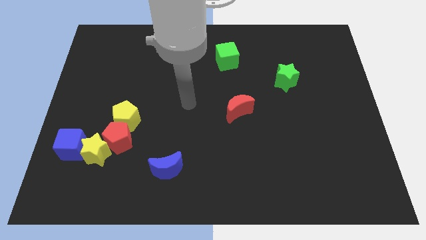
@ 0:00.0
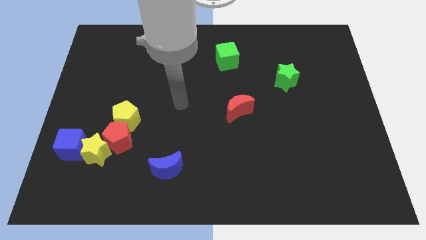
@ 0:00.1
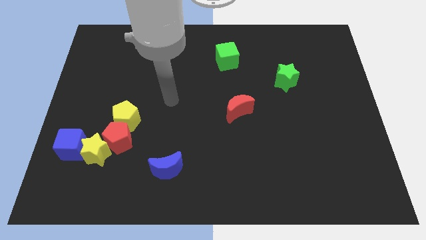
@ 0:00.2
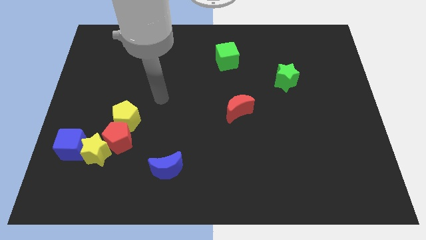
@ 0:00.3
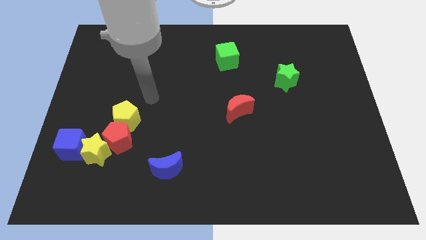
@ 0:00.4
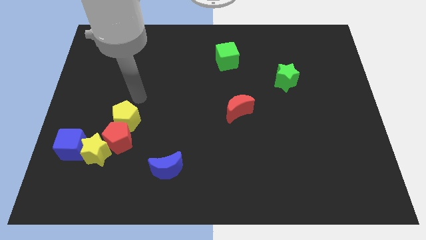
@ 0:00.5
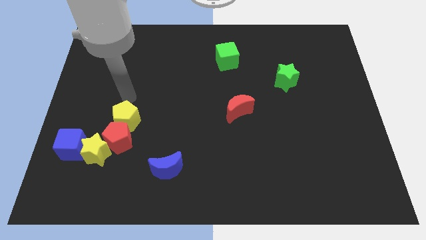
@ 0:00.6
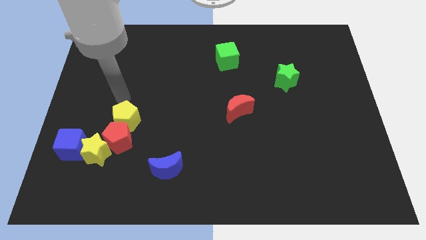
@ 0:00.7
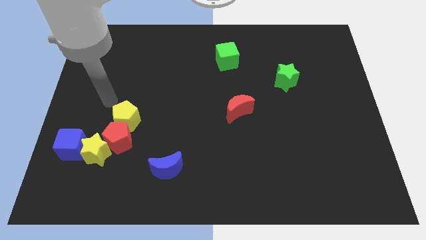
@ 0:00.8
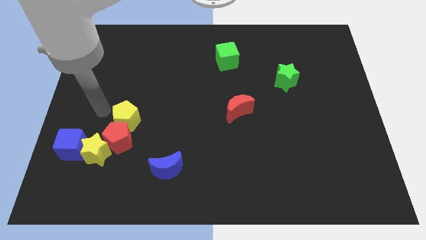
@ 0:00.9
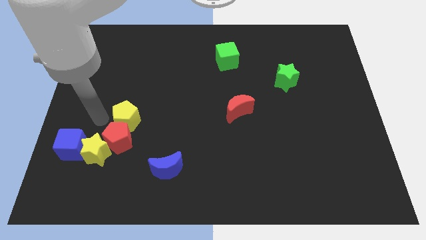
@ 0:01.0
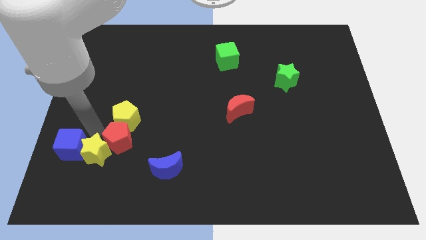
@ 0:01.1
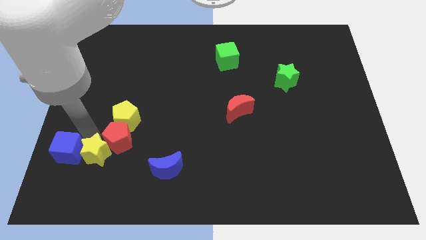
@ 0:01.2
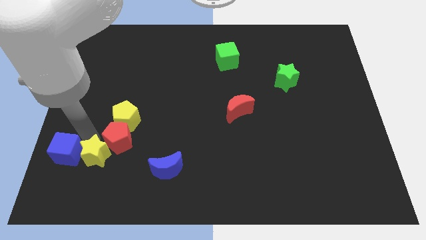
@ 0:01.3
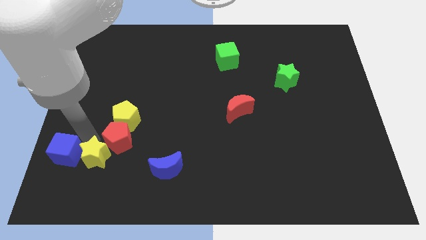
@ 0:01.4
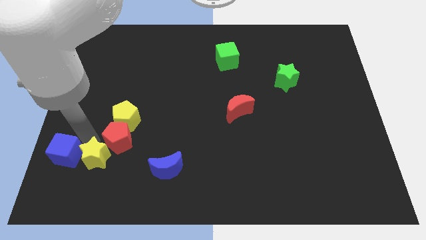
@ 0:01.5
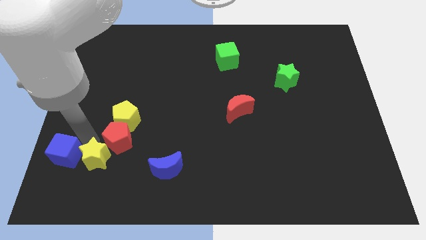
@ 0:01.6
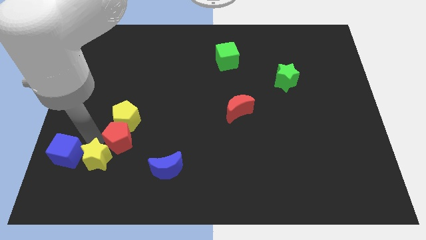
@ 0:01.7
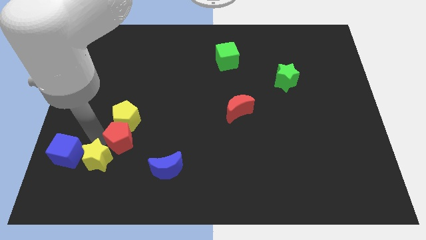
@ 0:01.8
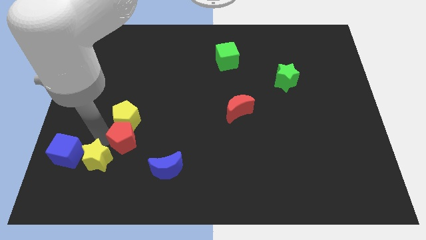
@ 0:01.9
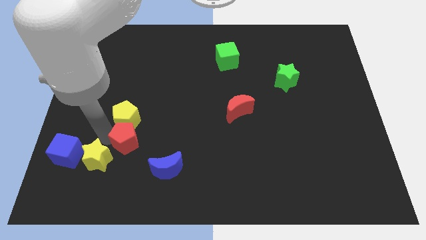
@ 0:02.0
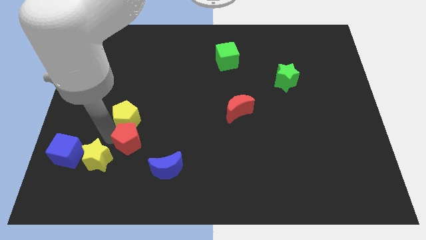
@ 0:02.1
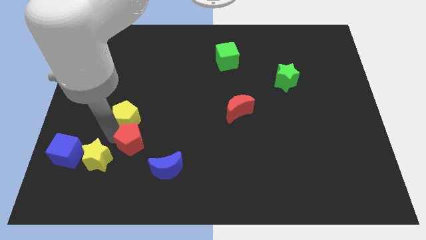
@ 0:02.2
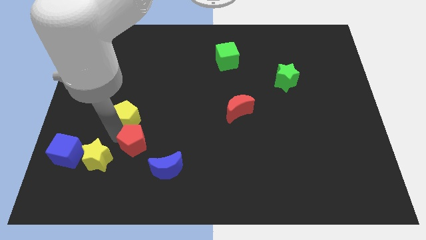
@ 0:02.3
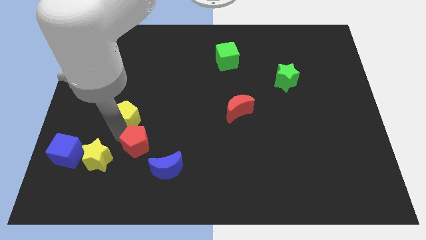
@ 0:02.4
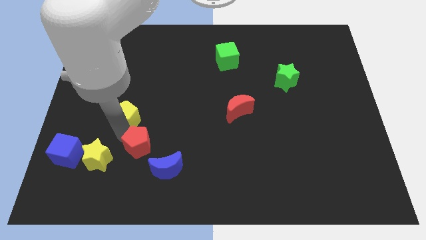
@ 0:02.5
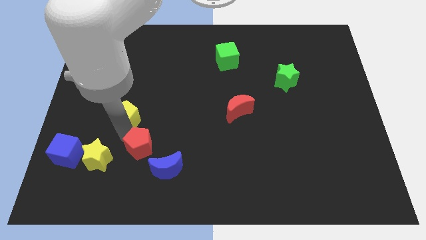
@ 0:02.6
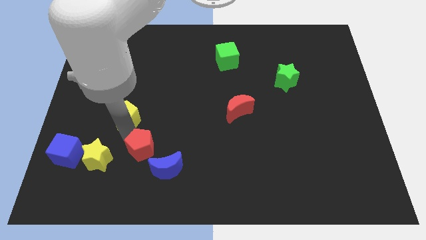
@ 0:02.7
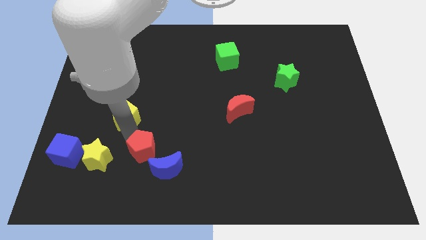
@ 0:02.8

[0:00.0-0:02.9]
move the red pentagon away from the yellow star, yellow pentagon, and blue cube

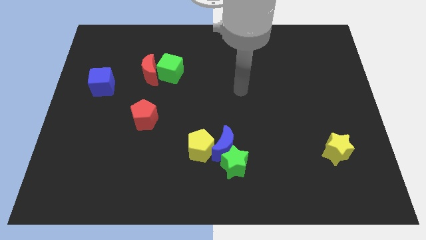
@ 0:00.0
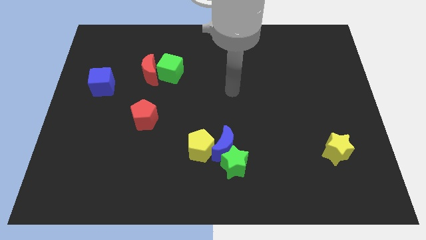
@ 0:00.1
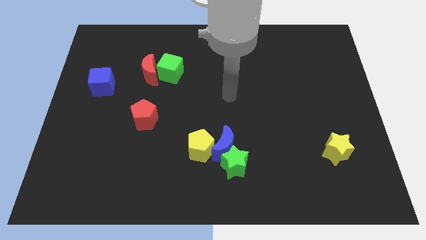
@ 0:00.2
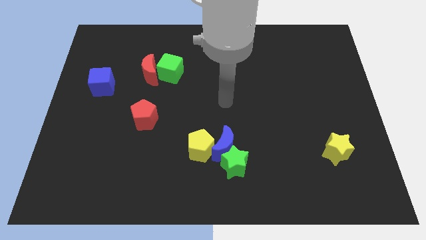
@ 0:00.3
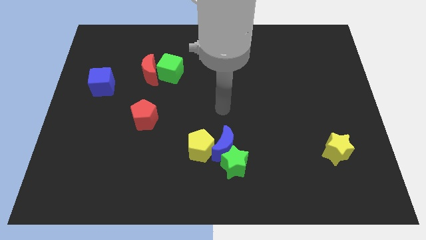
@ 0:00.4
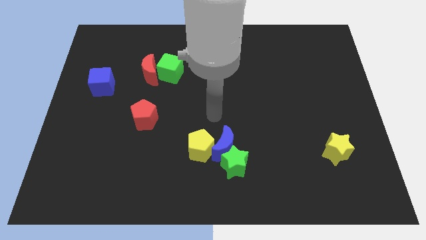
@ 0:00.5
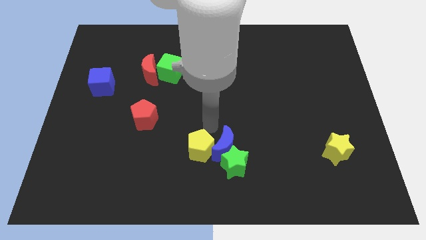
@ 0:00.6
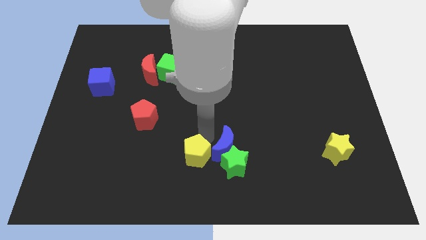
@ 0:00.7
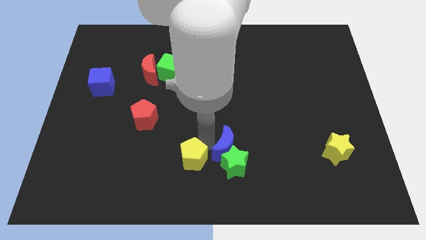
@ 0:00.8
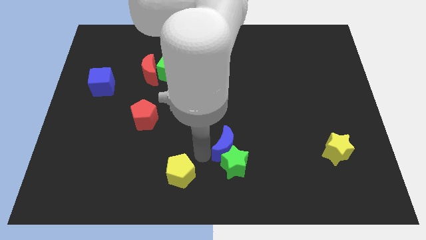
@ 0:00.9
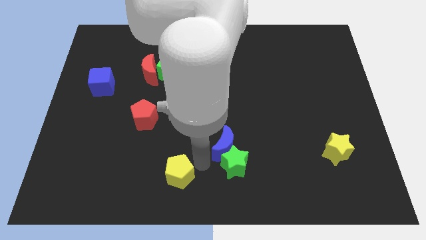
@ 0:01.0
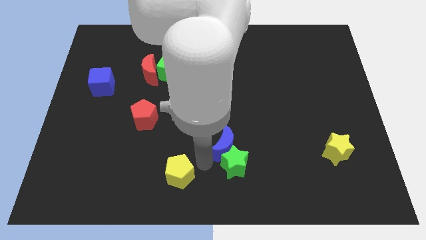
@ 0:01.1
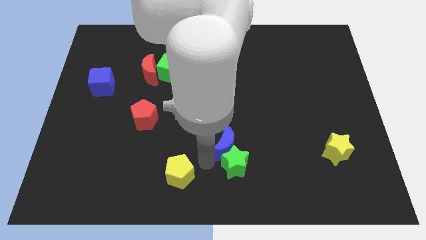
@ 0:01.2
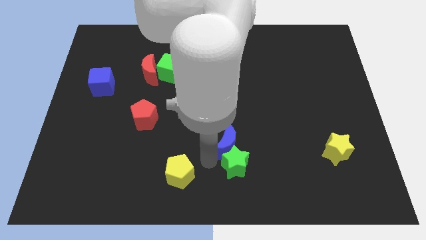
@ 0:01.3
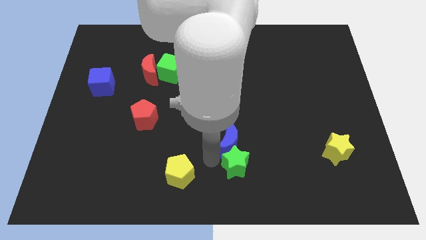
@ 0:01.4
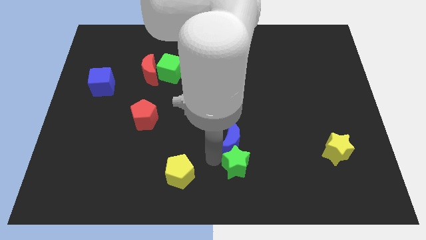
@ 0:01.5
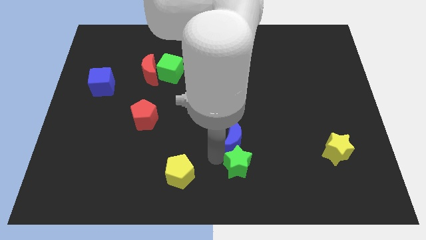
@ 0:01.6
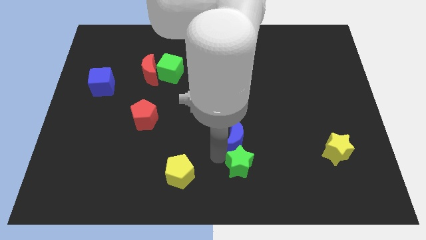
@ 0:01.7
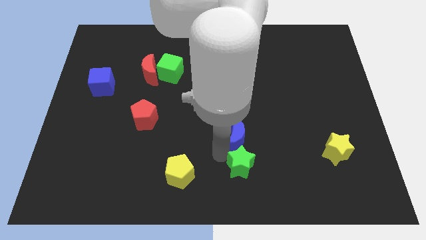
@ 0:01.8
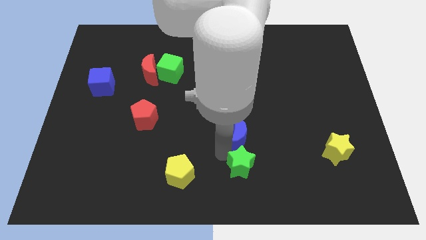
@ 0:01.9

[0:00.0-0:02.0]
pull the blue moon apart from the green star and yellow pentagon

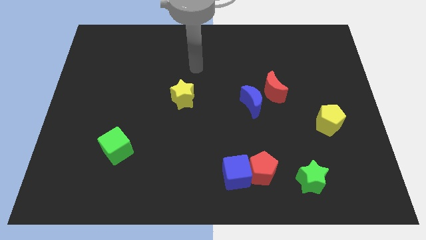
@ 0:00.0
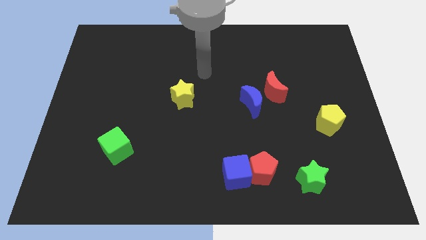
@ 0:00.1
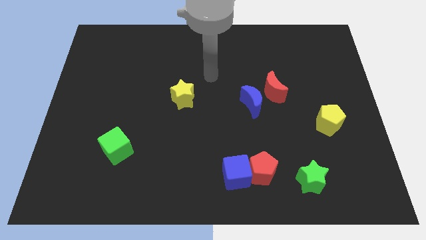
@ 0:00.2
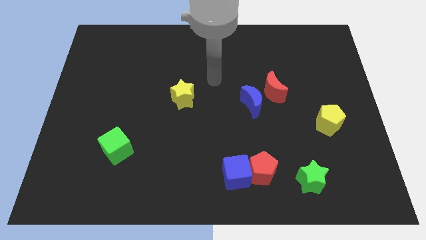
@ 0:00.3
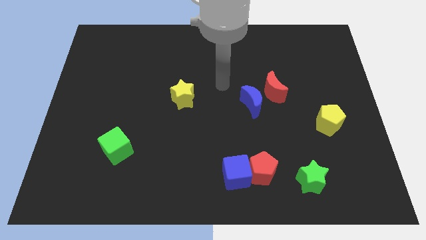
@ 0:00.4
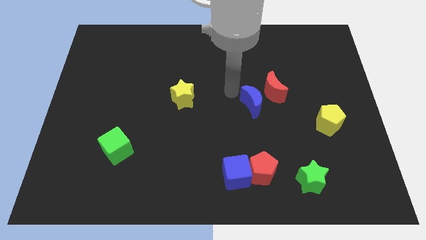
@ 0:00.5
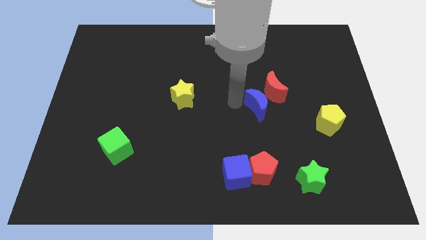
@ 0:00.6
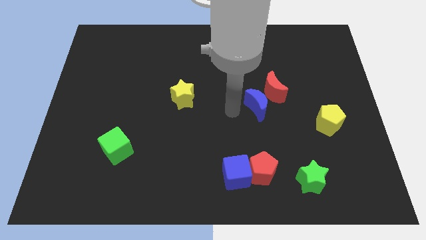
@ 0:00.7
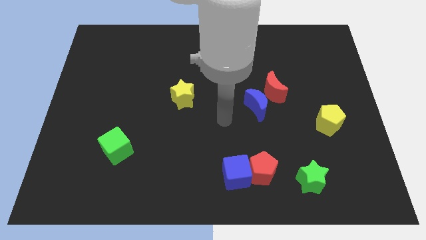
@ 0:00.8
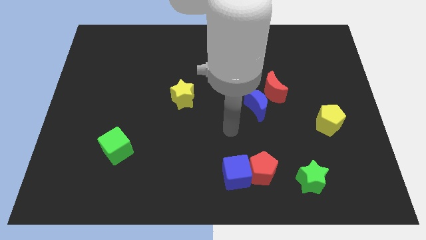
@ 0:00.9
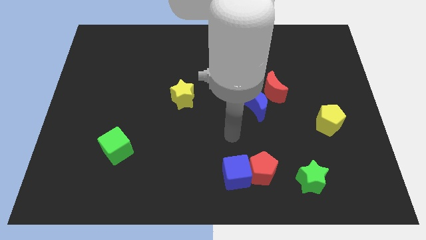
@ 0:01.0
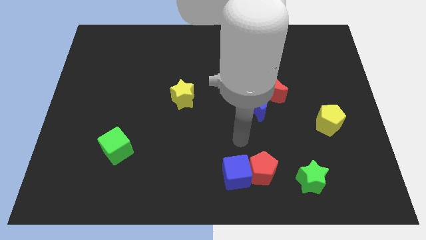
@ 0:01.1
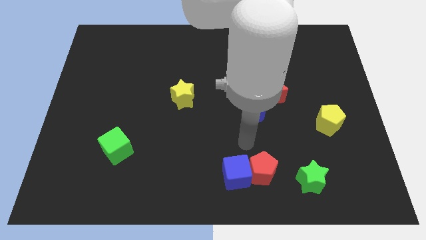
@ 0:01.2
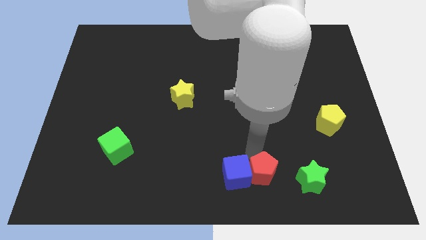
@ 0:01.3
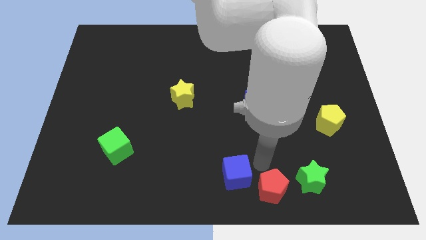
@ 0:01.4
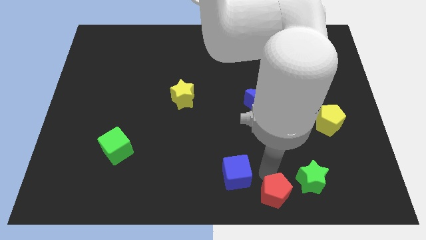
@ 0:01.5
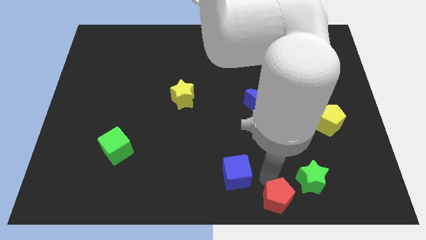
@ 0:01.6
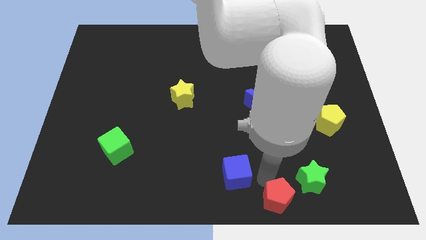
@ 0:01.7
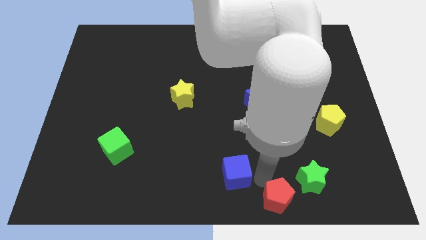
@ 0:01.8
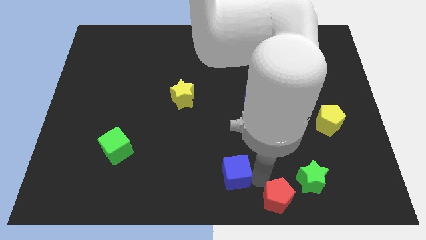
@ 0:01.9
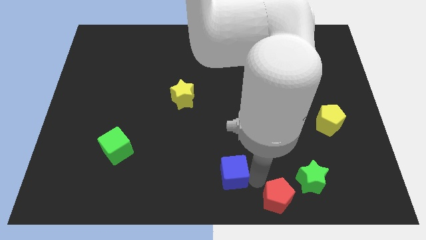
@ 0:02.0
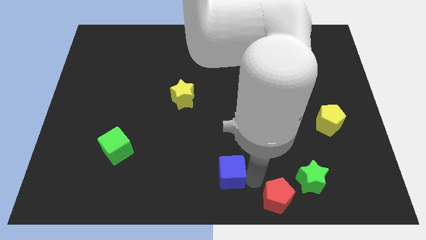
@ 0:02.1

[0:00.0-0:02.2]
separate the blue cube from the red pentagon

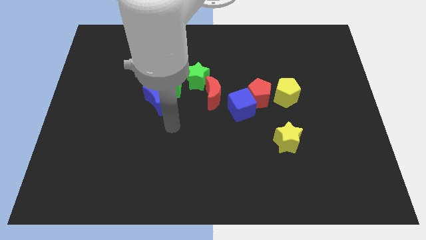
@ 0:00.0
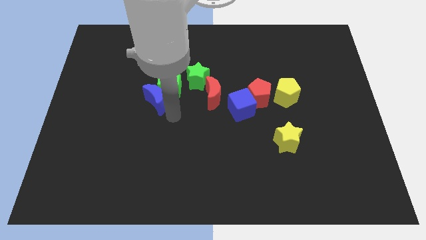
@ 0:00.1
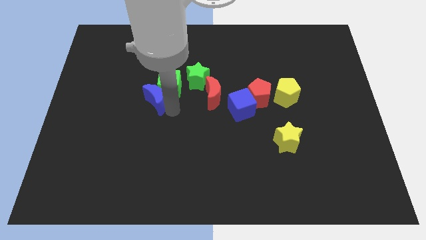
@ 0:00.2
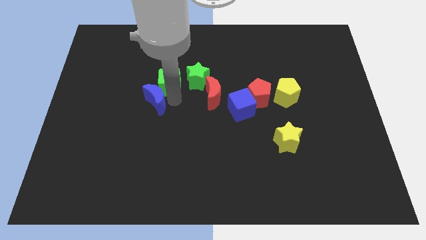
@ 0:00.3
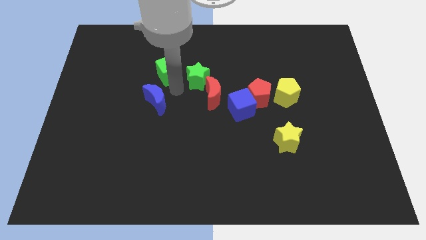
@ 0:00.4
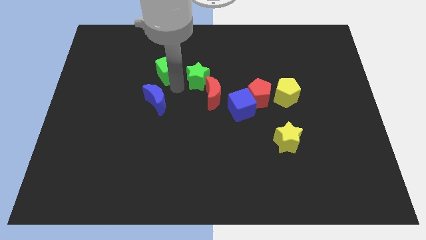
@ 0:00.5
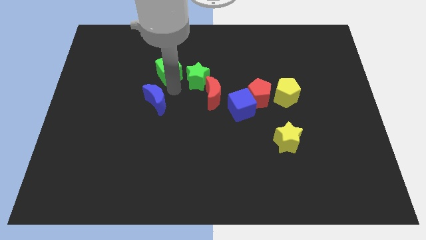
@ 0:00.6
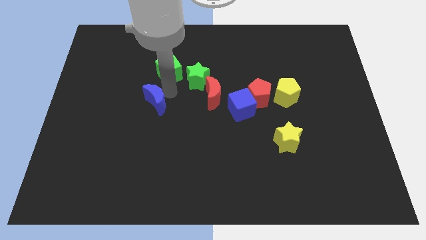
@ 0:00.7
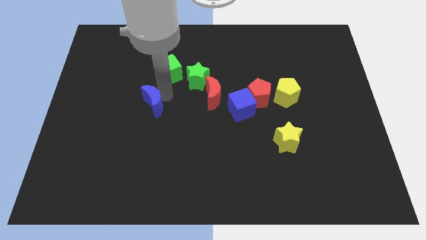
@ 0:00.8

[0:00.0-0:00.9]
separate the blue moon from the green cube

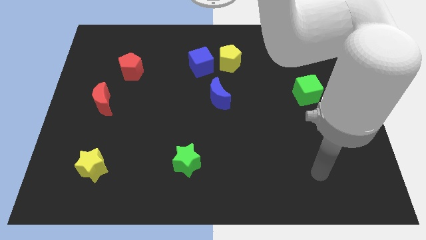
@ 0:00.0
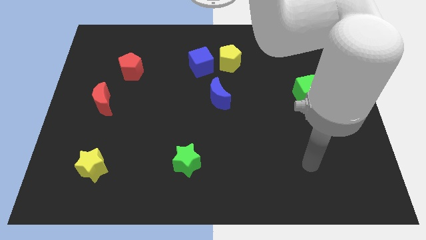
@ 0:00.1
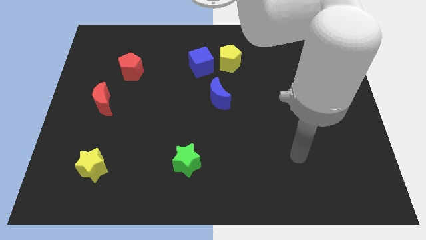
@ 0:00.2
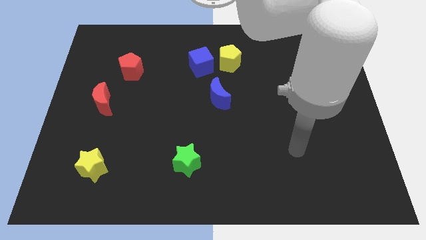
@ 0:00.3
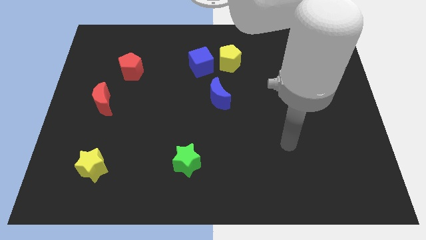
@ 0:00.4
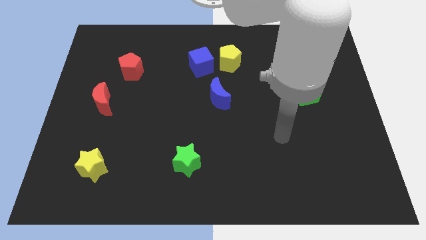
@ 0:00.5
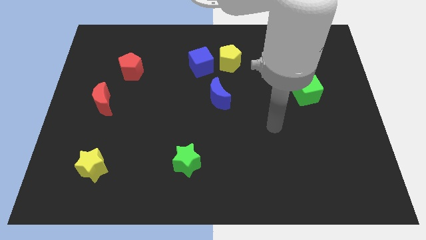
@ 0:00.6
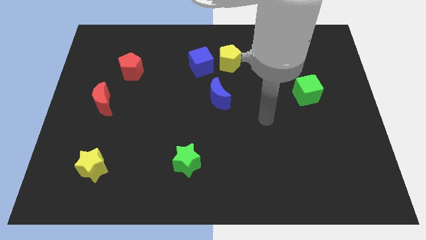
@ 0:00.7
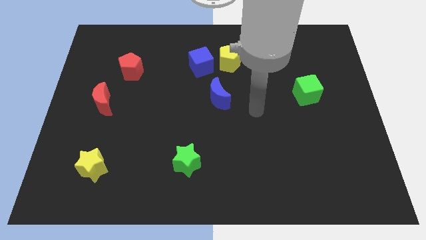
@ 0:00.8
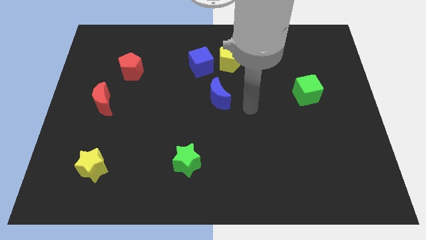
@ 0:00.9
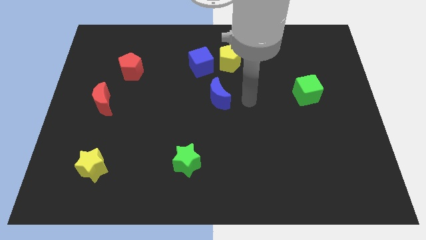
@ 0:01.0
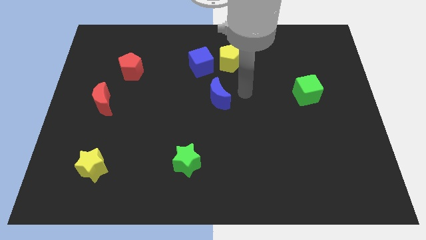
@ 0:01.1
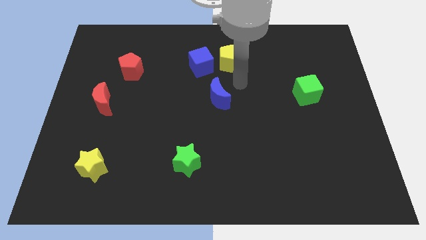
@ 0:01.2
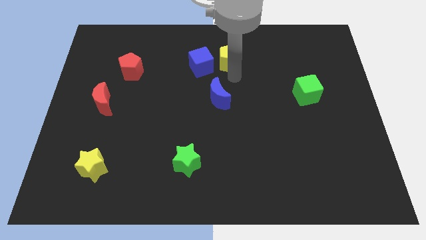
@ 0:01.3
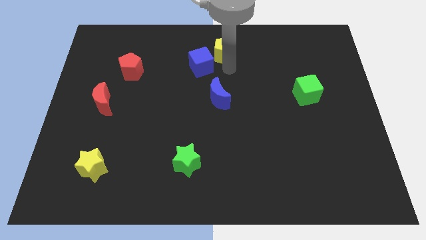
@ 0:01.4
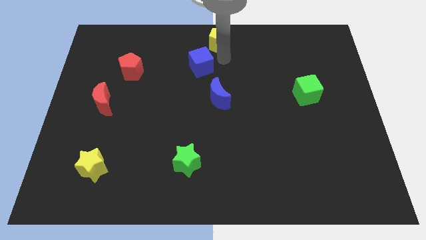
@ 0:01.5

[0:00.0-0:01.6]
pull the blue cube apart from the yellow pentagon
